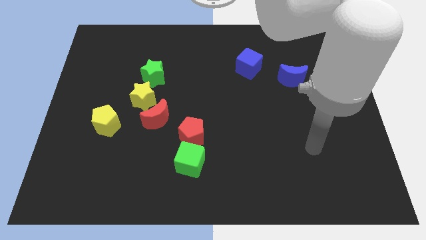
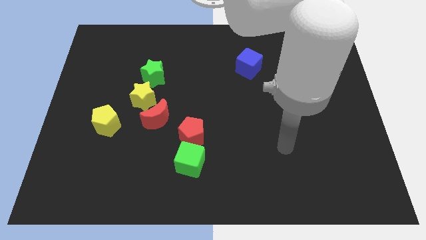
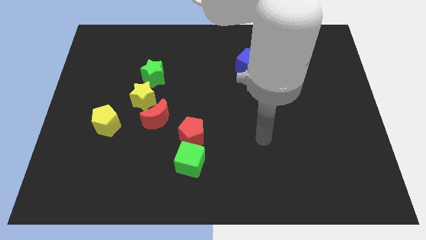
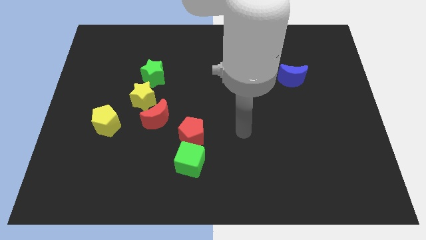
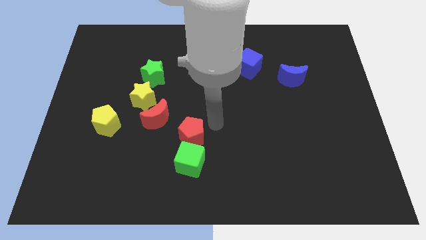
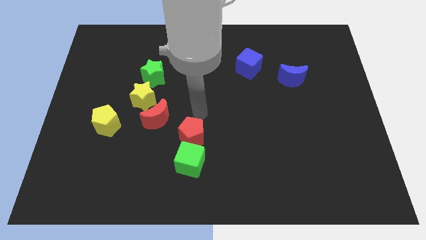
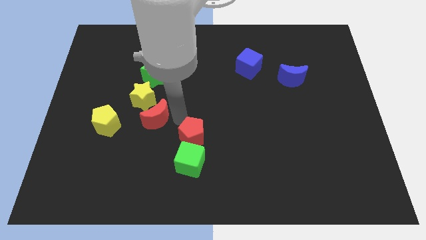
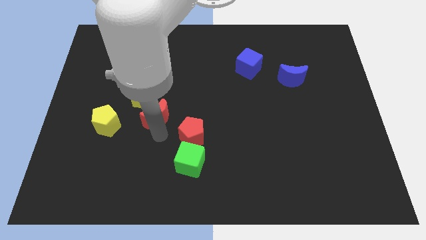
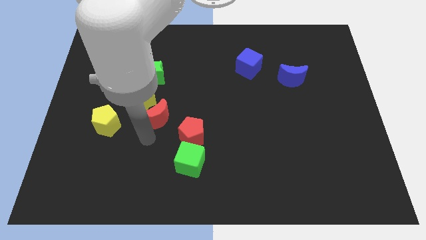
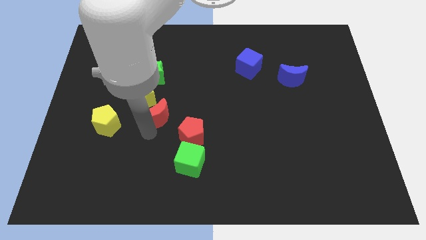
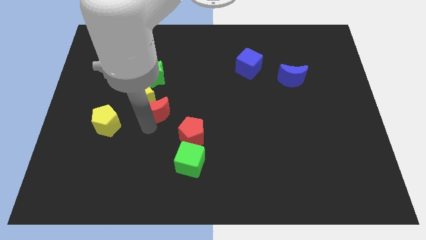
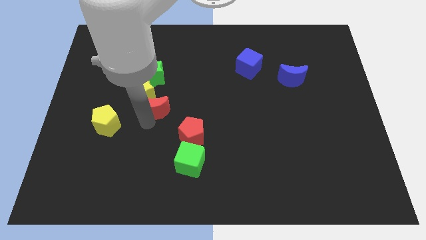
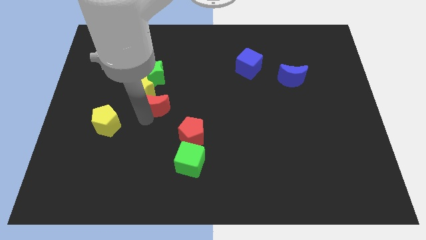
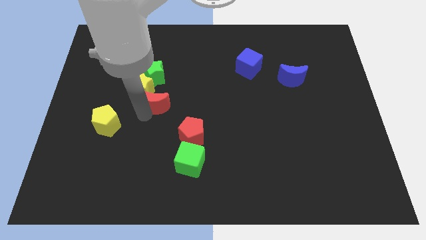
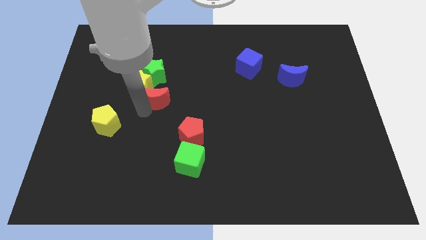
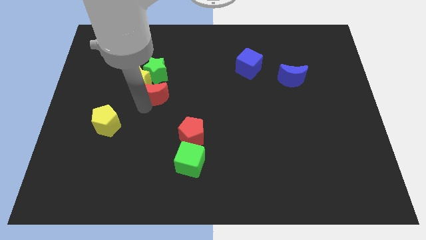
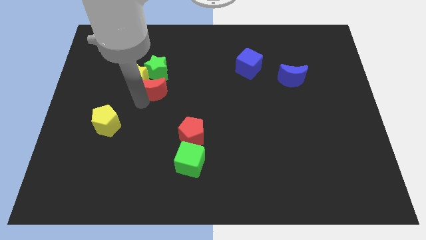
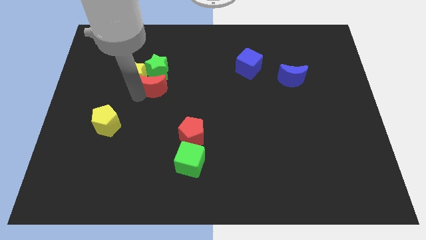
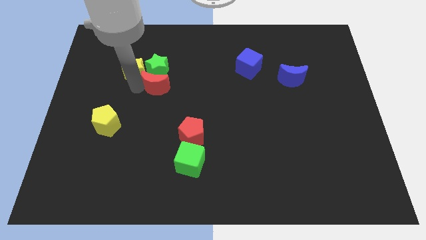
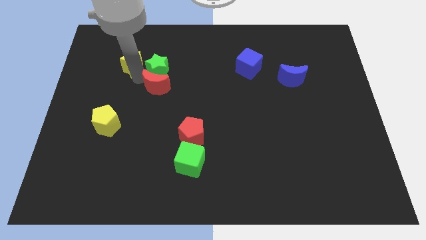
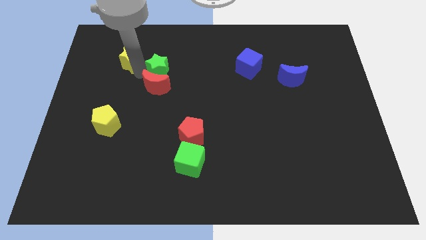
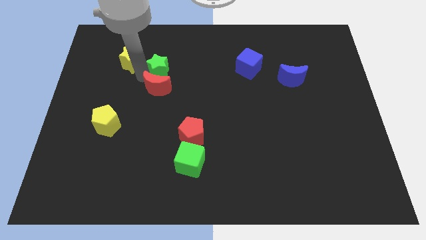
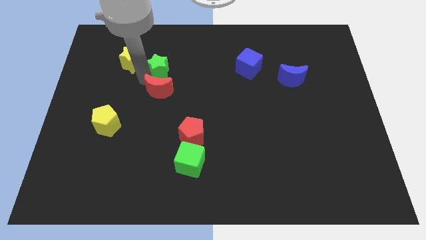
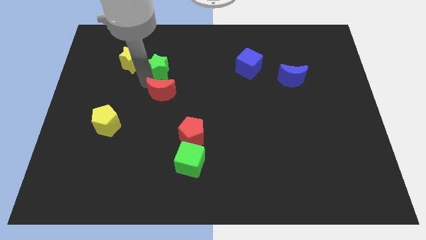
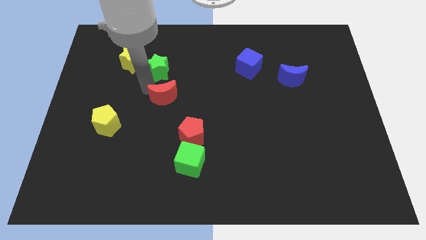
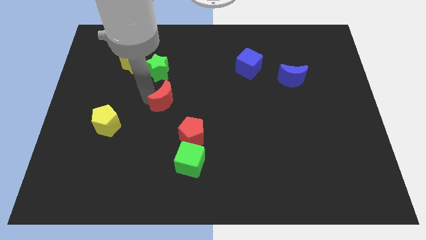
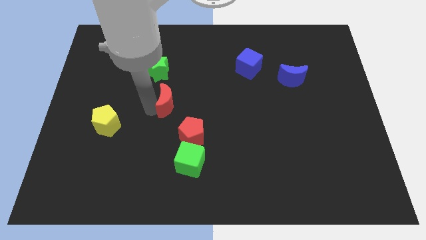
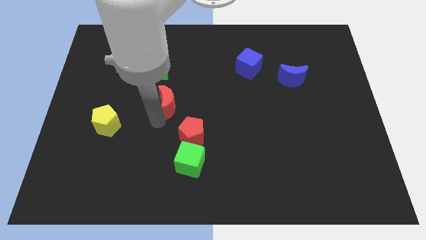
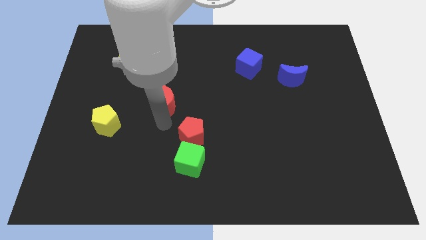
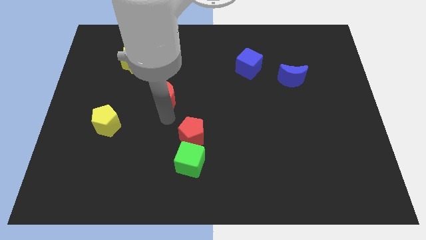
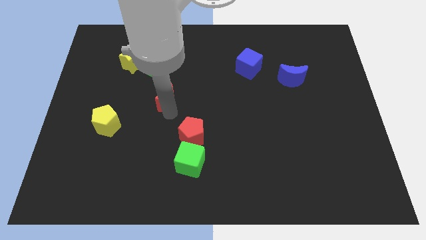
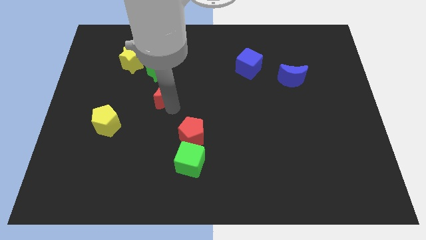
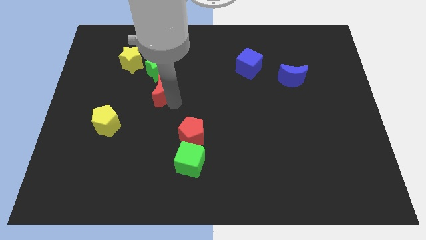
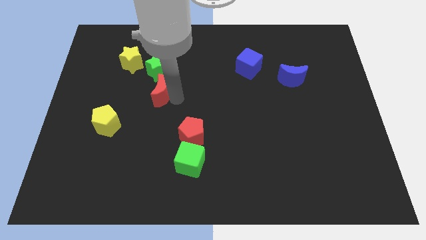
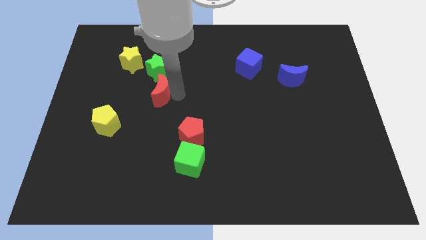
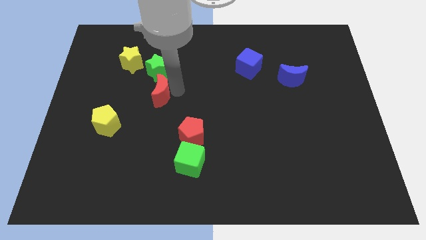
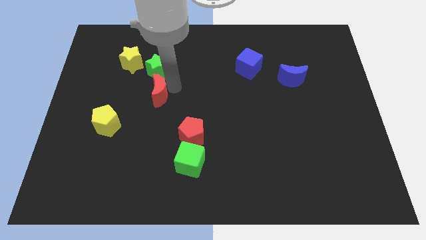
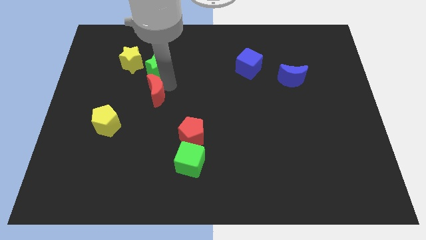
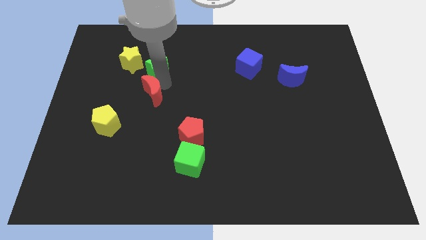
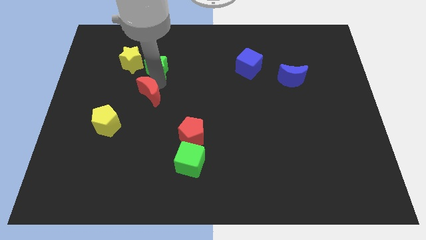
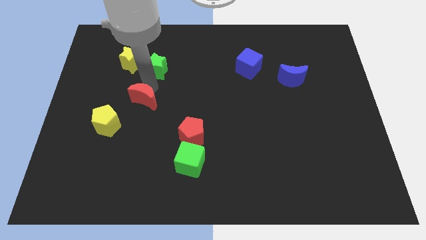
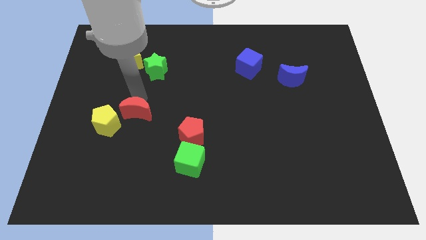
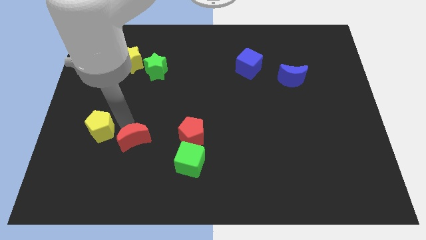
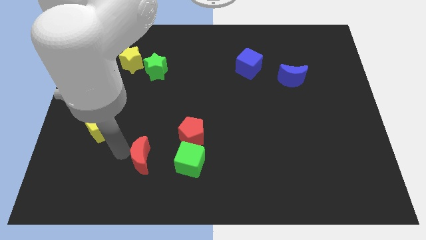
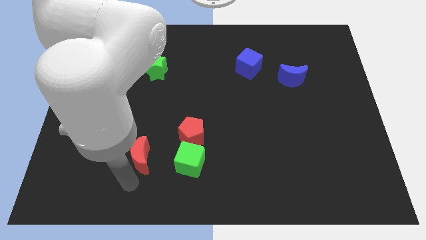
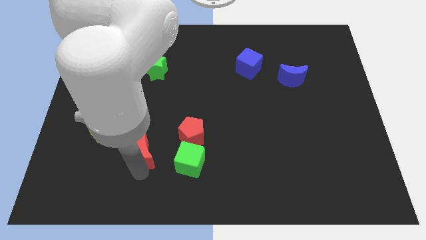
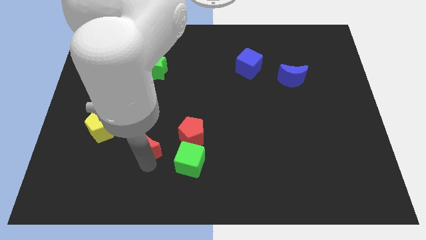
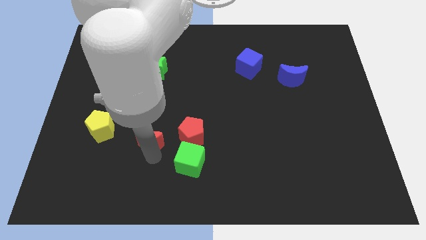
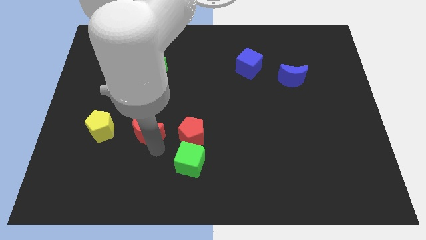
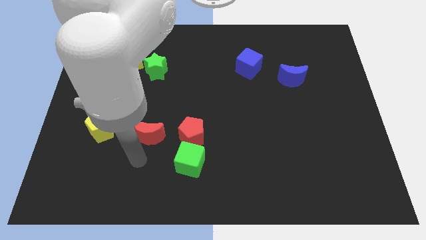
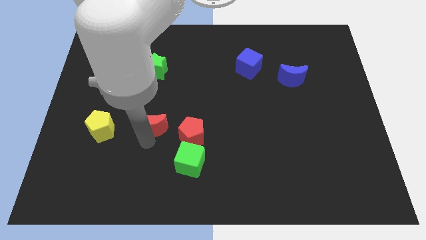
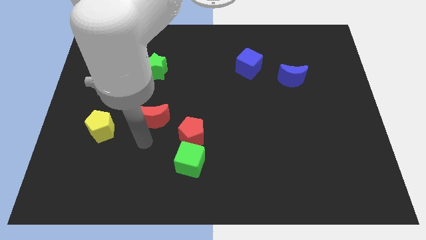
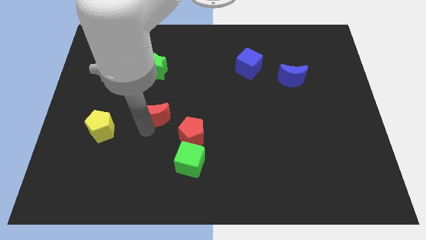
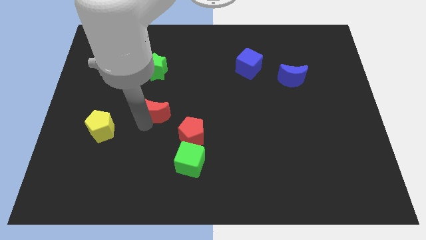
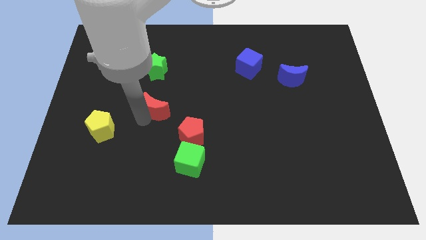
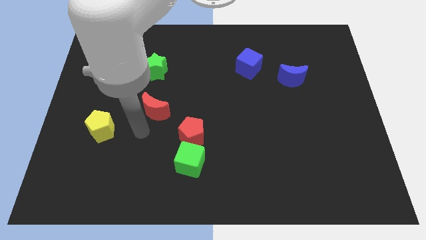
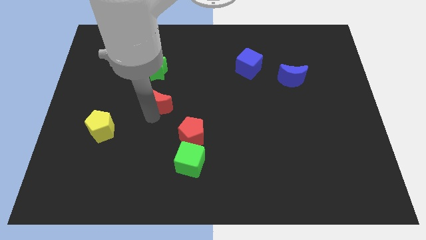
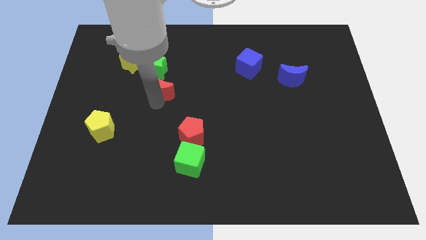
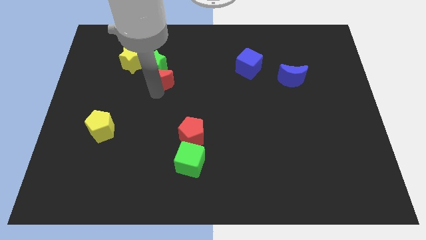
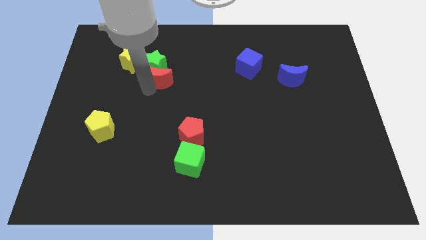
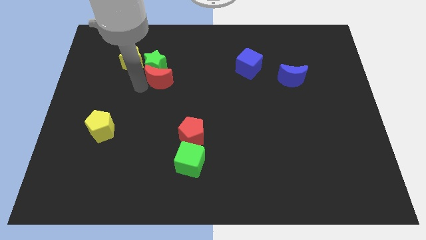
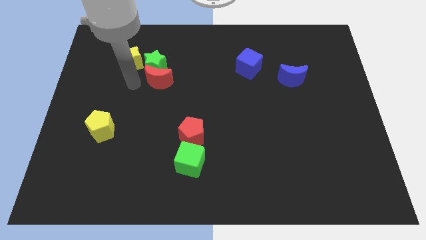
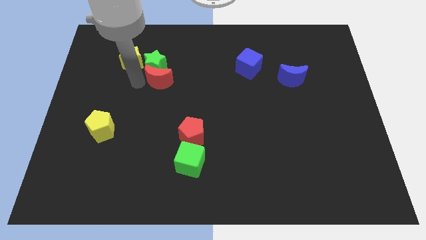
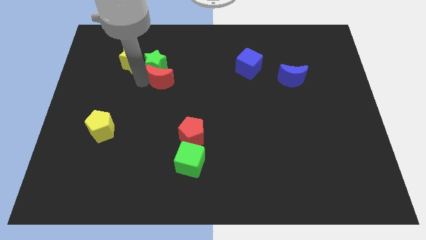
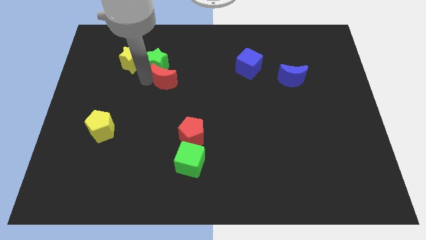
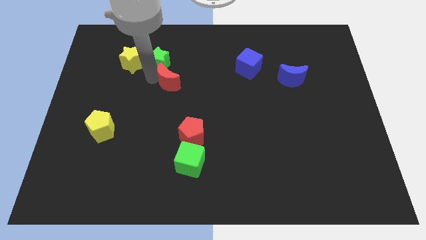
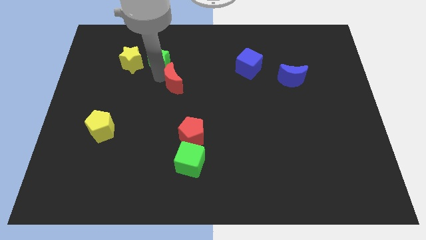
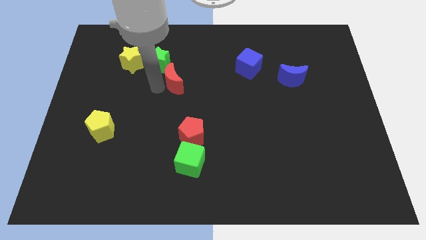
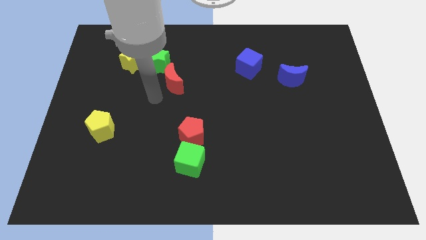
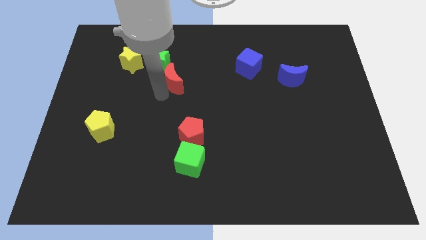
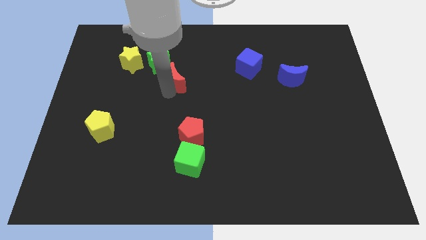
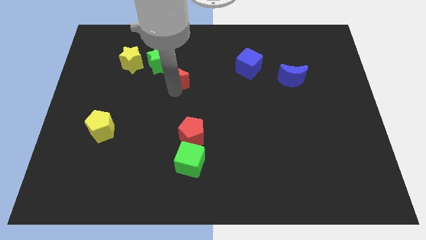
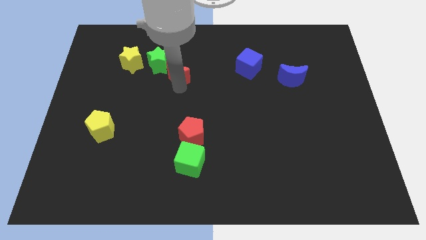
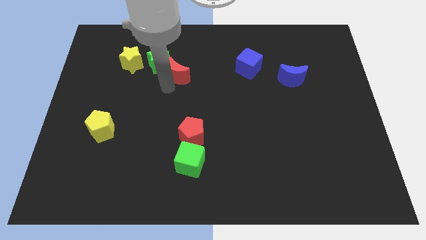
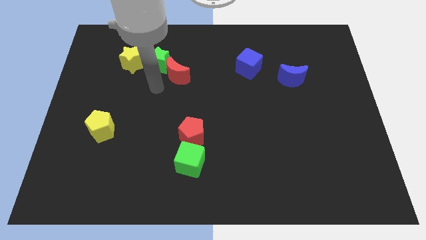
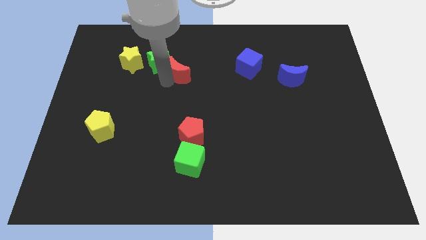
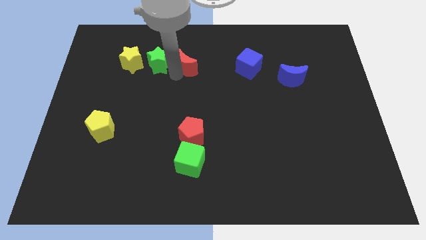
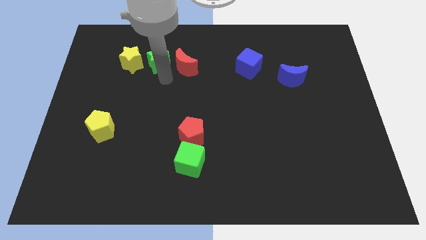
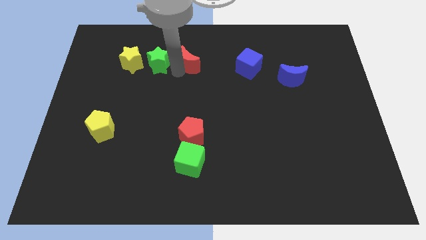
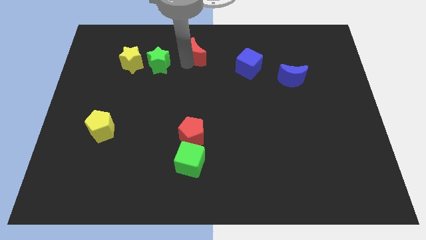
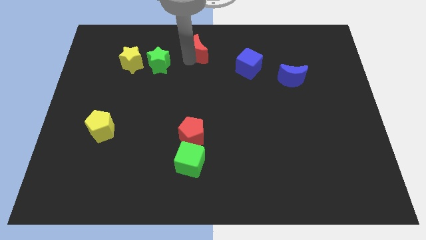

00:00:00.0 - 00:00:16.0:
slide the red moon to the top
